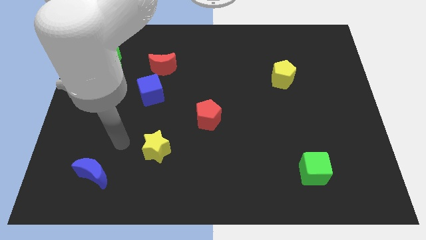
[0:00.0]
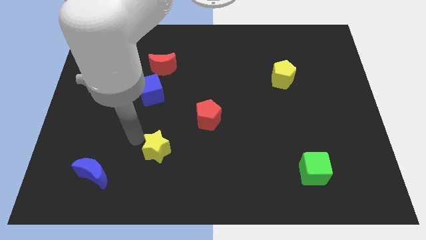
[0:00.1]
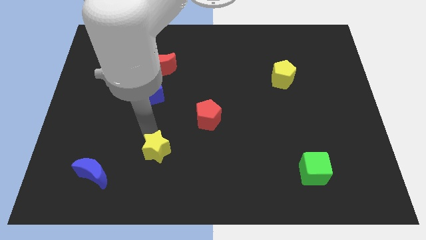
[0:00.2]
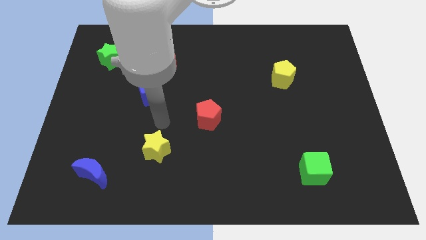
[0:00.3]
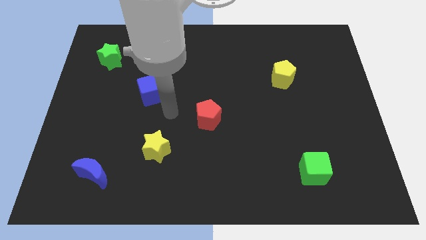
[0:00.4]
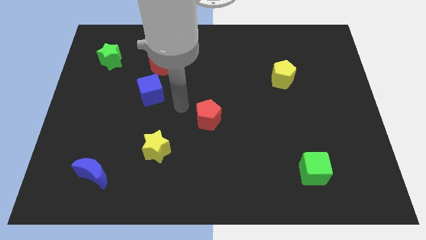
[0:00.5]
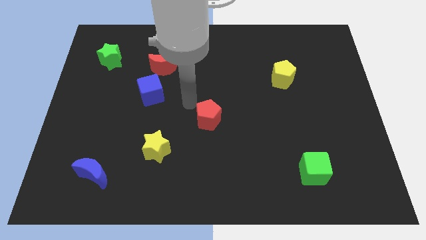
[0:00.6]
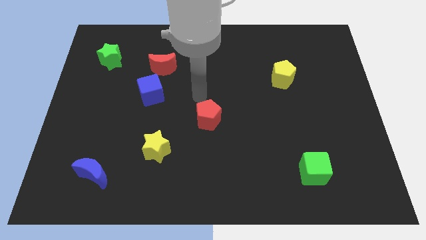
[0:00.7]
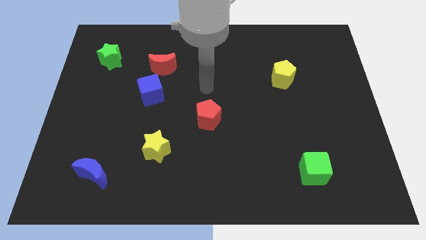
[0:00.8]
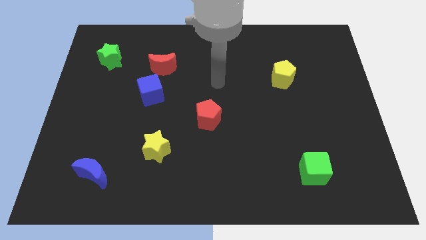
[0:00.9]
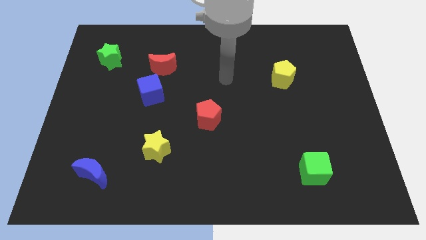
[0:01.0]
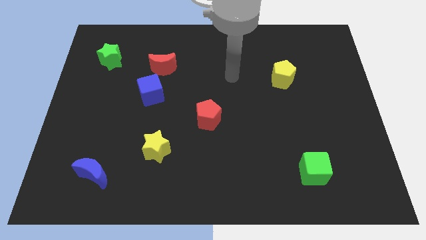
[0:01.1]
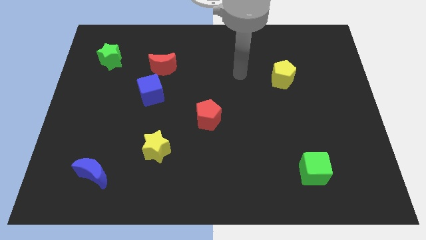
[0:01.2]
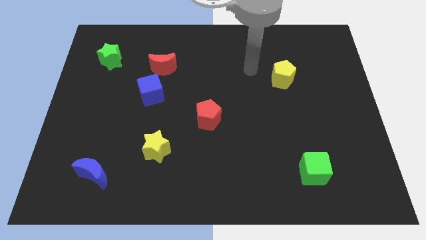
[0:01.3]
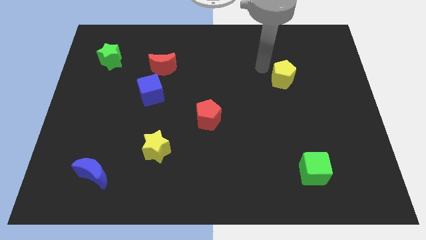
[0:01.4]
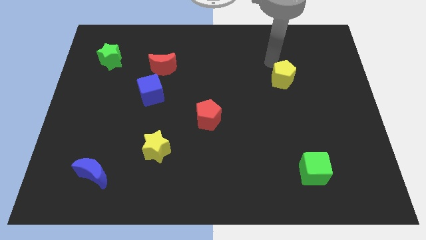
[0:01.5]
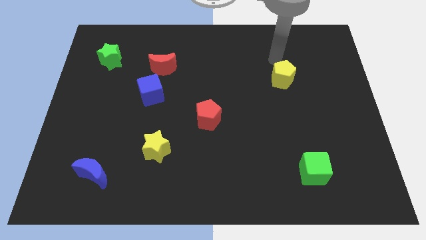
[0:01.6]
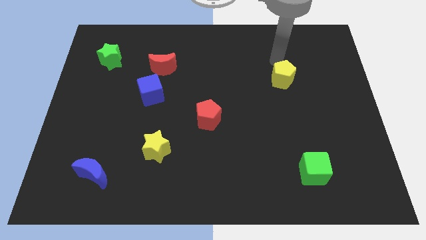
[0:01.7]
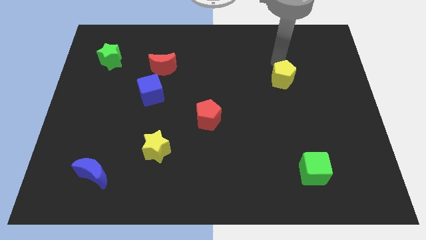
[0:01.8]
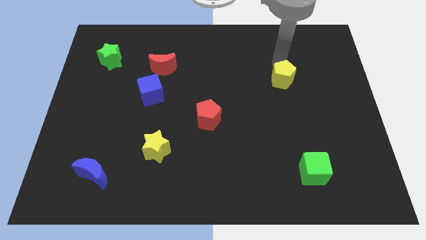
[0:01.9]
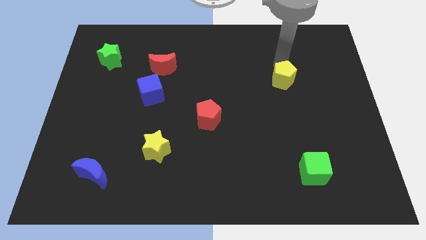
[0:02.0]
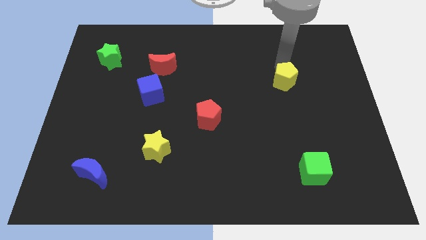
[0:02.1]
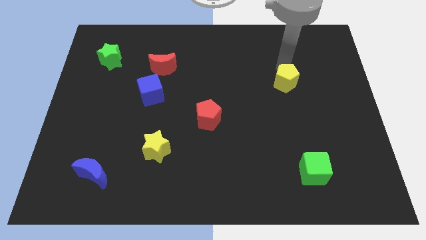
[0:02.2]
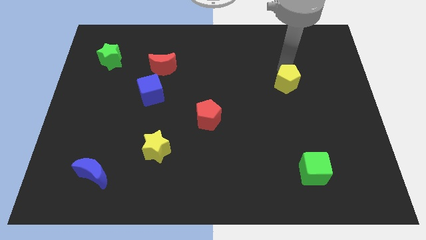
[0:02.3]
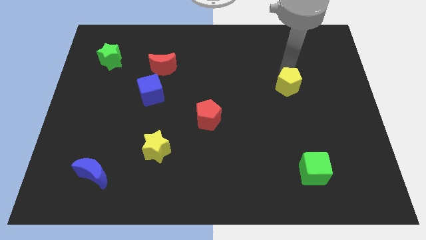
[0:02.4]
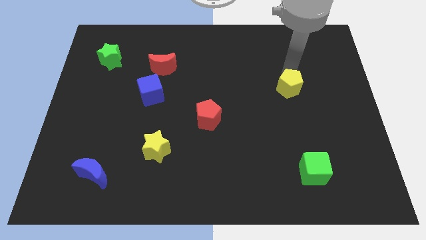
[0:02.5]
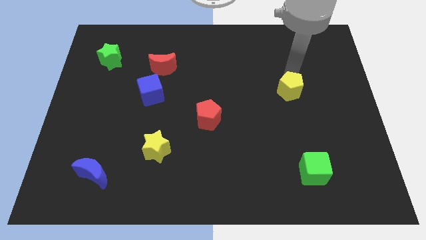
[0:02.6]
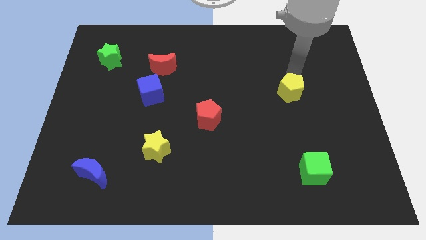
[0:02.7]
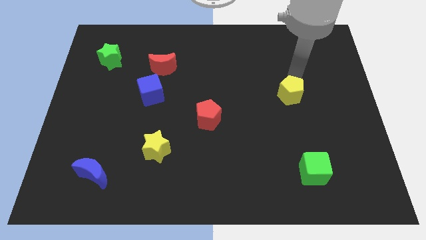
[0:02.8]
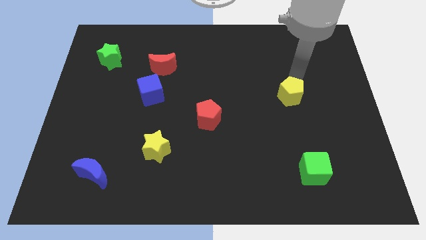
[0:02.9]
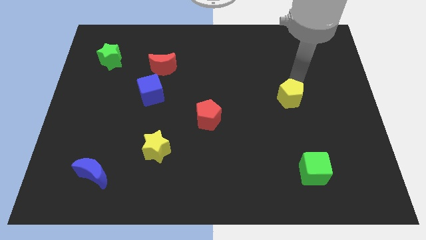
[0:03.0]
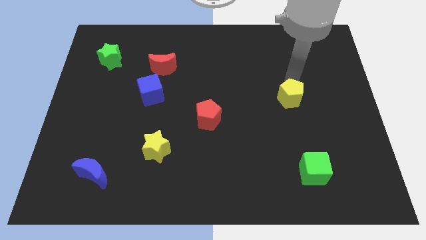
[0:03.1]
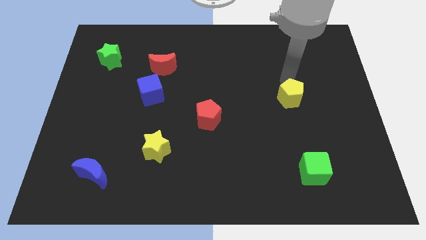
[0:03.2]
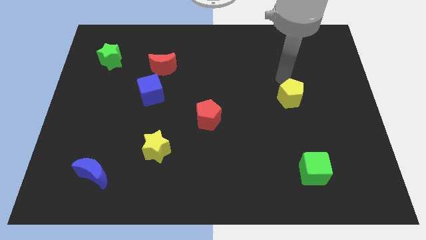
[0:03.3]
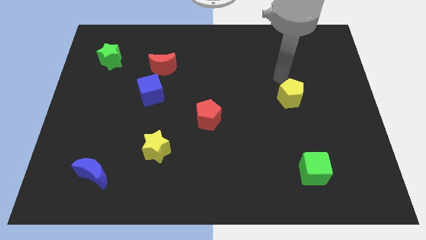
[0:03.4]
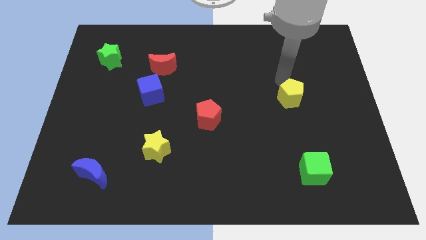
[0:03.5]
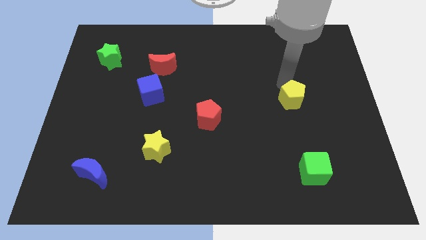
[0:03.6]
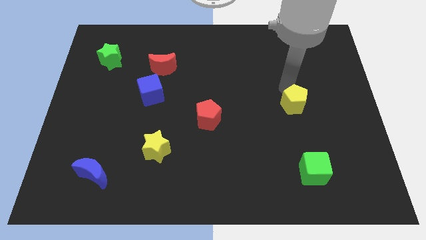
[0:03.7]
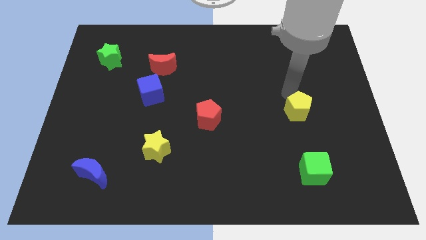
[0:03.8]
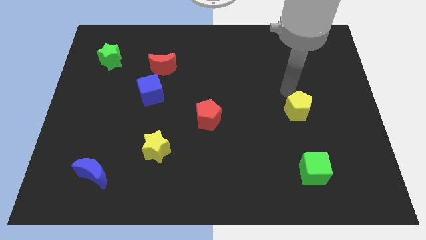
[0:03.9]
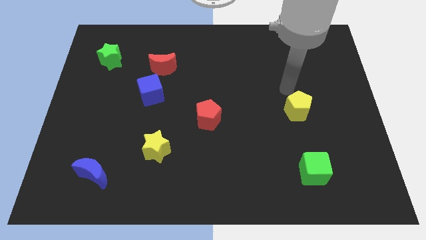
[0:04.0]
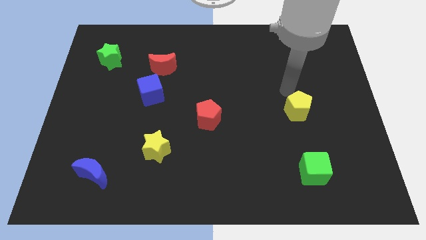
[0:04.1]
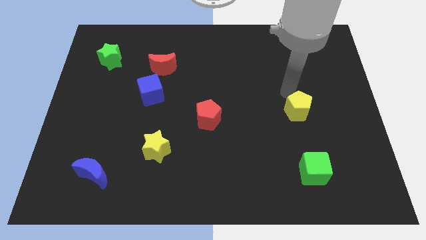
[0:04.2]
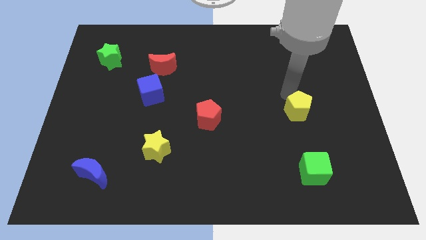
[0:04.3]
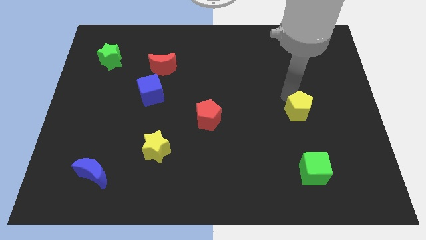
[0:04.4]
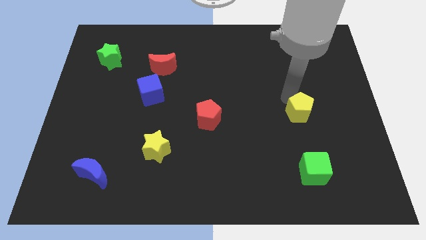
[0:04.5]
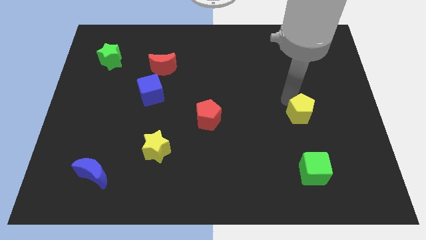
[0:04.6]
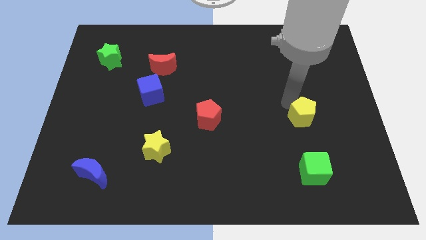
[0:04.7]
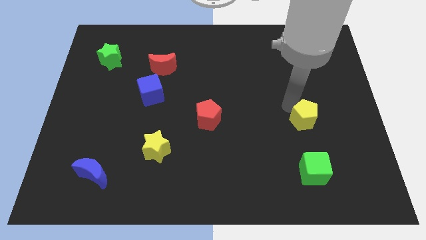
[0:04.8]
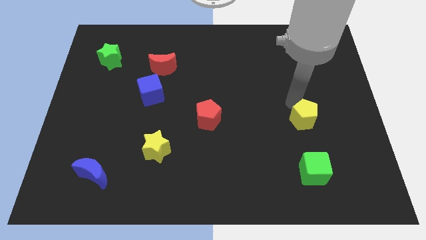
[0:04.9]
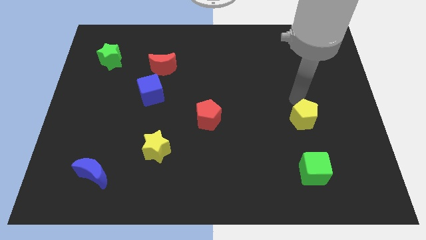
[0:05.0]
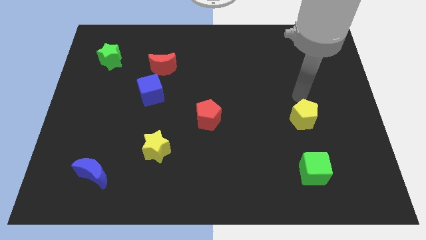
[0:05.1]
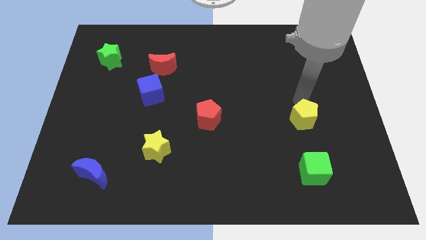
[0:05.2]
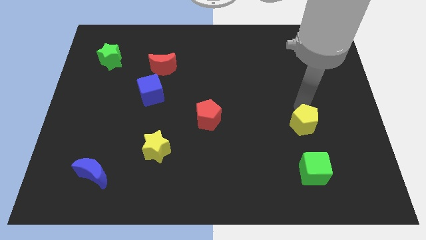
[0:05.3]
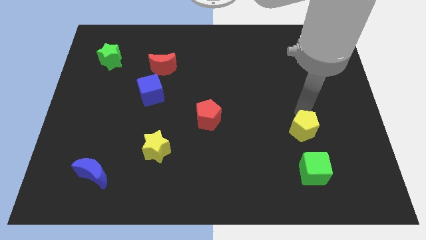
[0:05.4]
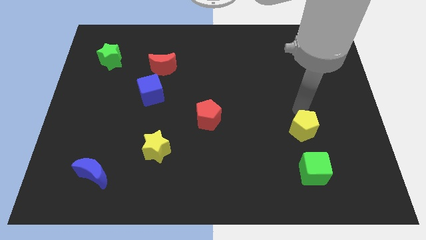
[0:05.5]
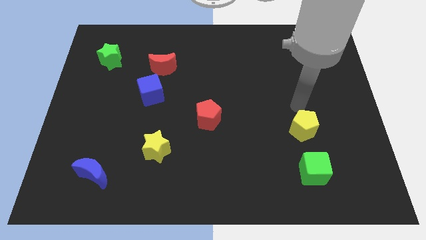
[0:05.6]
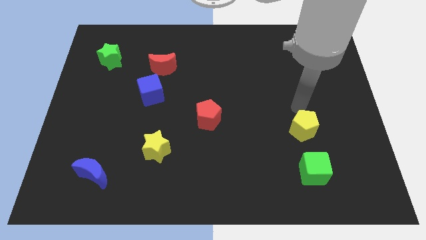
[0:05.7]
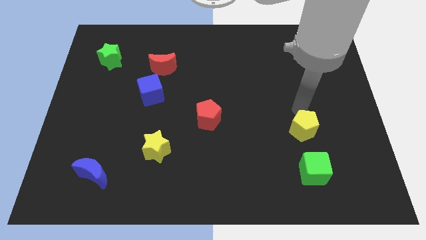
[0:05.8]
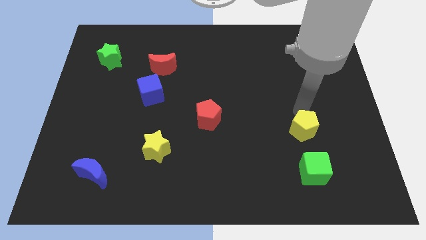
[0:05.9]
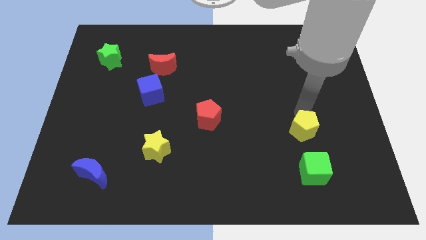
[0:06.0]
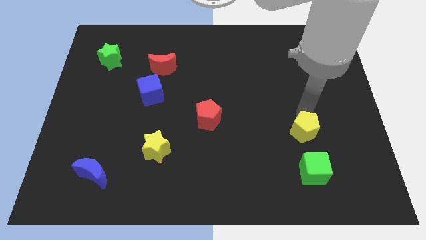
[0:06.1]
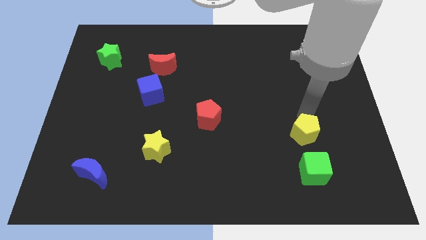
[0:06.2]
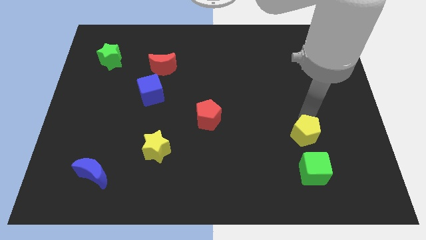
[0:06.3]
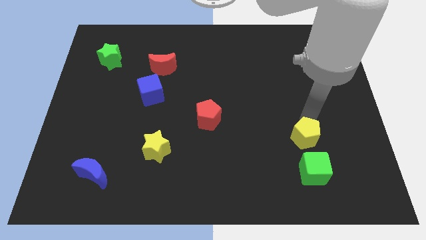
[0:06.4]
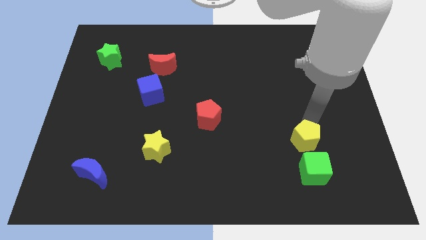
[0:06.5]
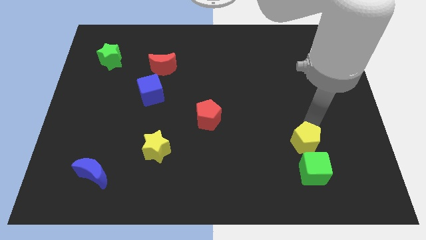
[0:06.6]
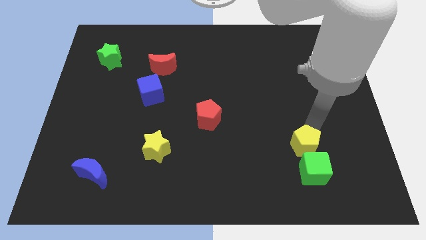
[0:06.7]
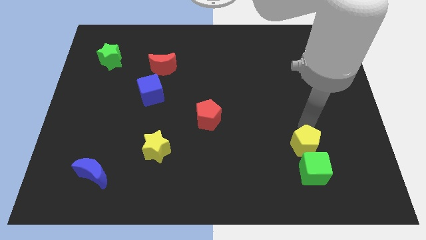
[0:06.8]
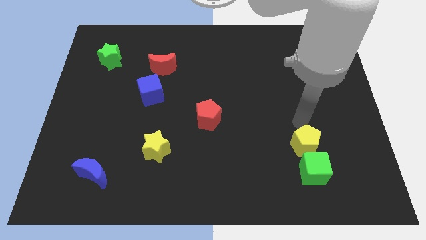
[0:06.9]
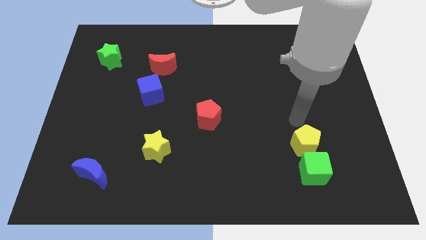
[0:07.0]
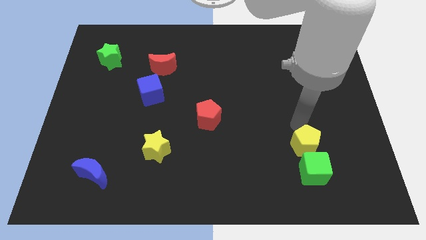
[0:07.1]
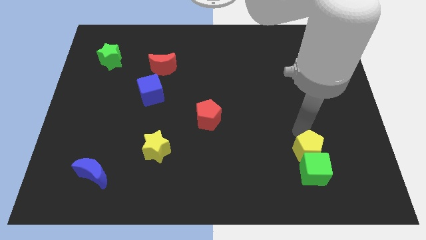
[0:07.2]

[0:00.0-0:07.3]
move the yellow pentagon to the green cube
